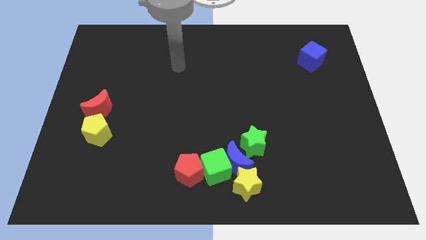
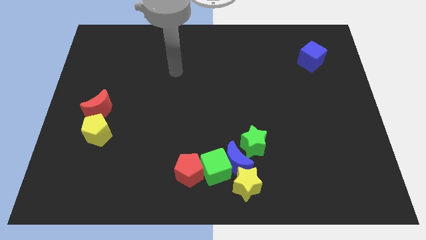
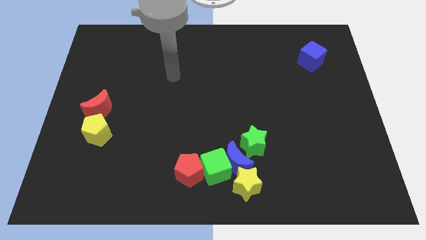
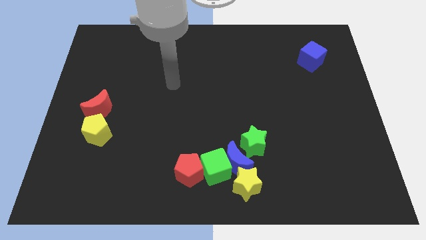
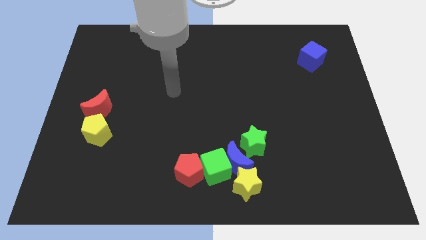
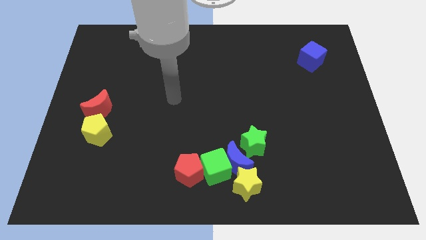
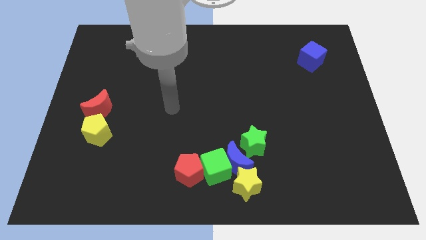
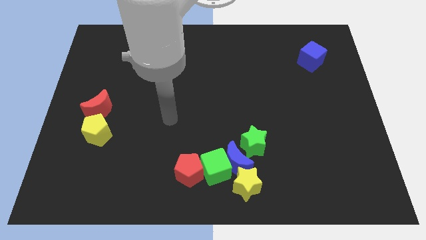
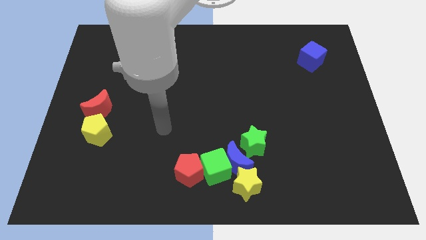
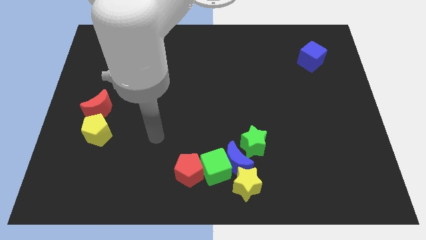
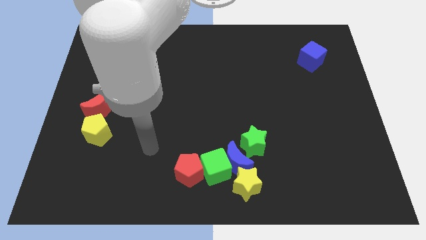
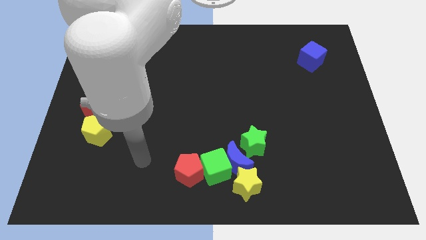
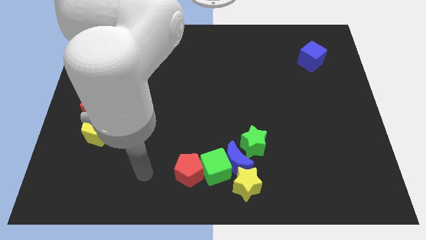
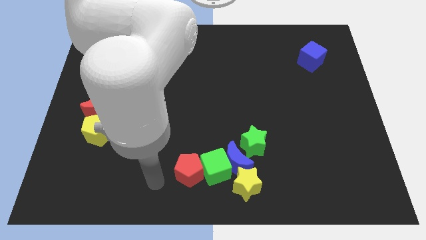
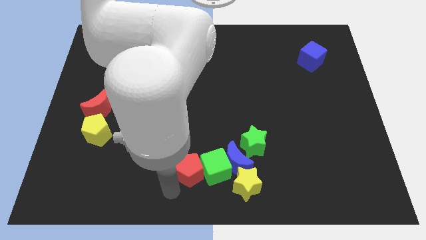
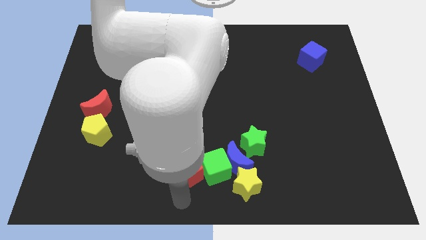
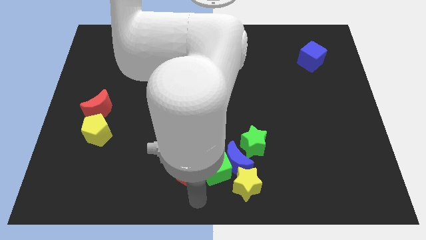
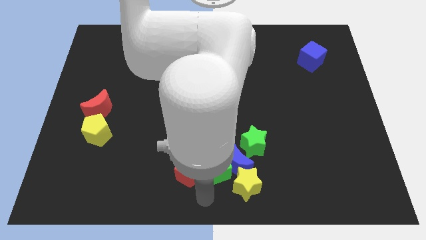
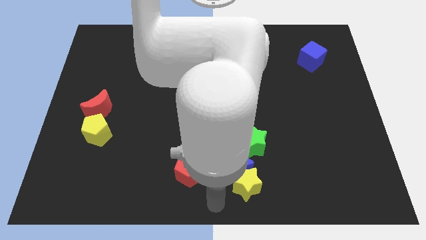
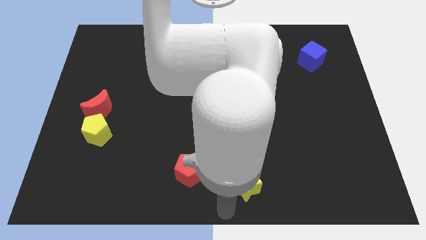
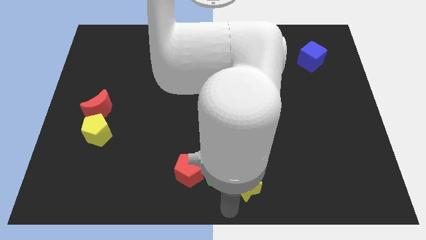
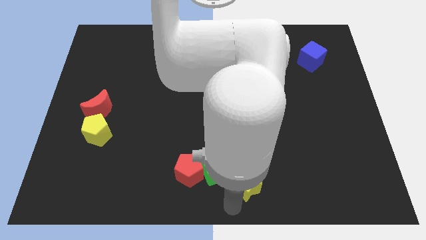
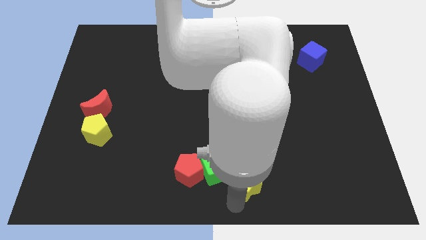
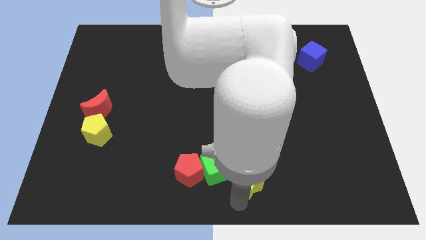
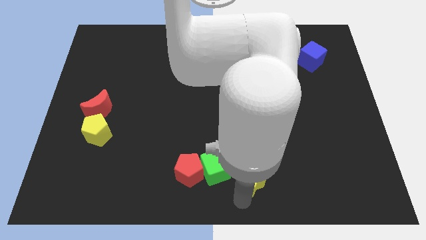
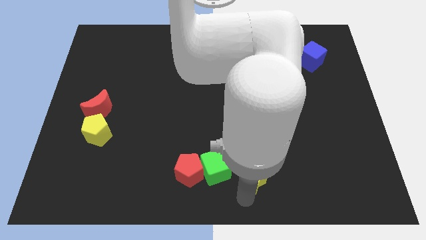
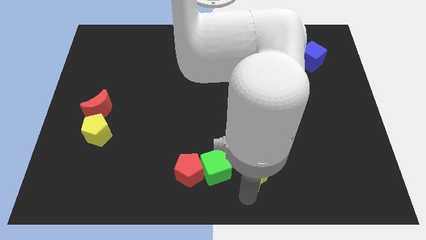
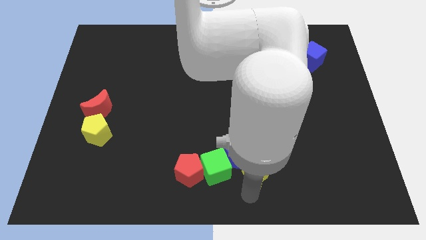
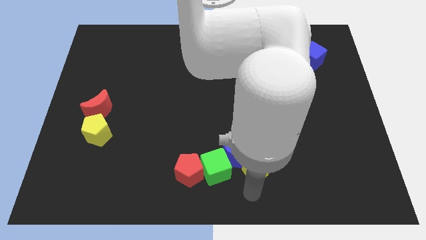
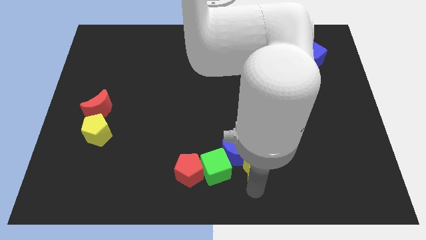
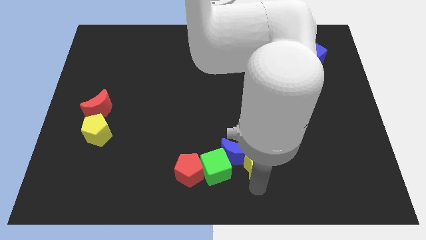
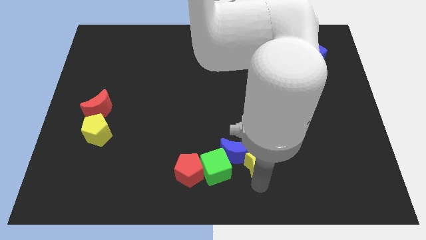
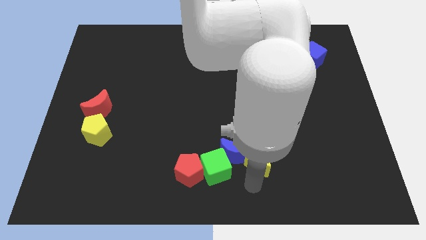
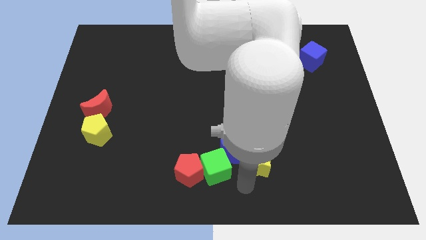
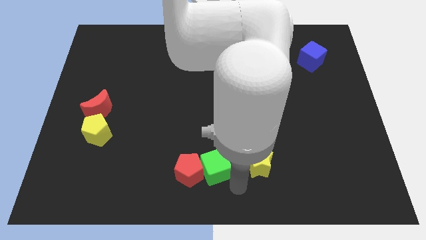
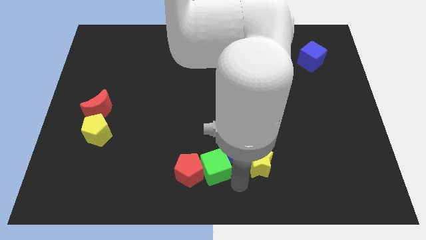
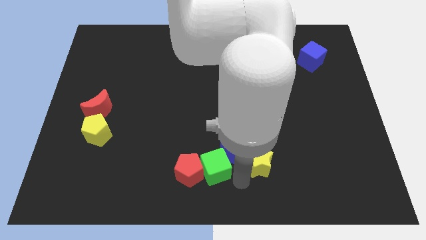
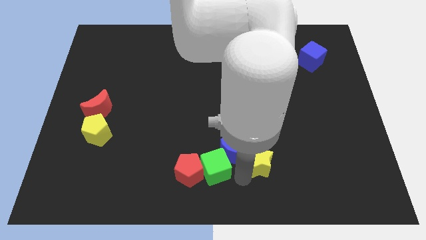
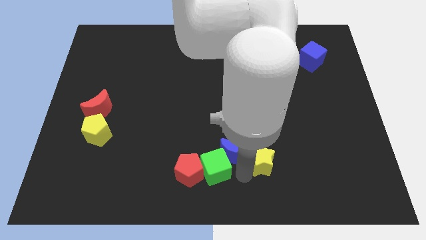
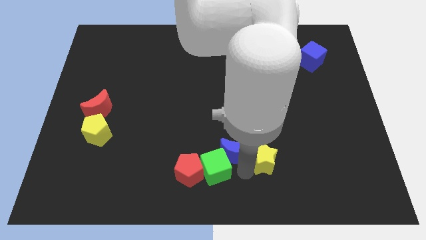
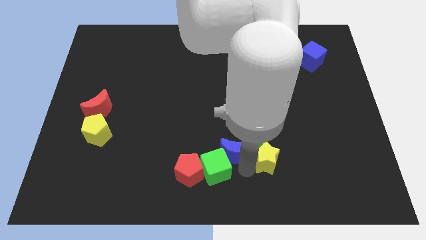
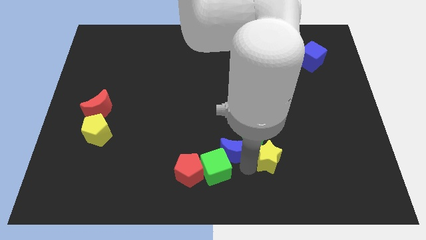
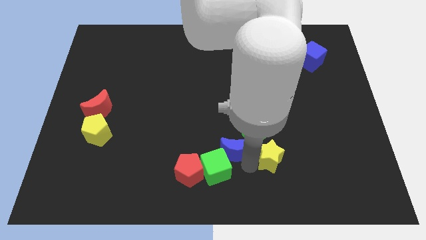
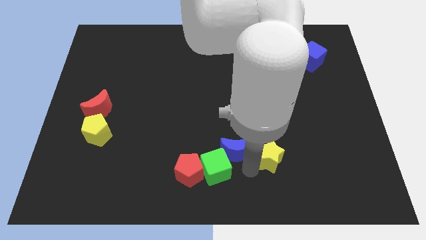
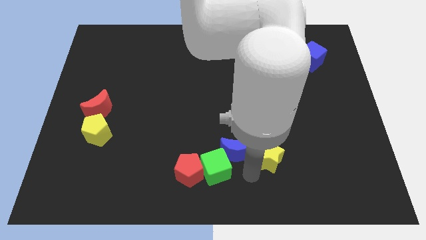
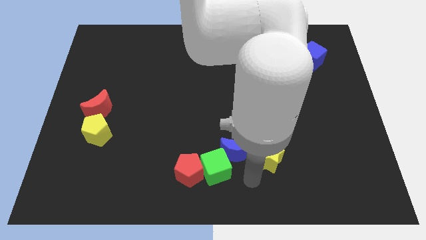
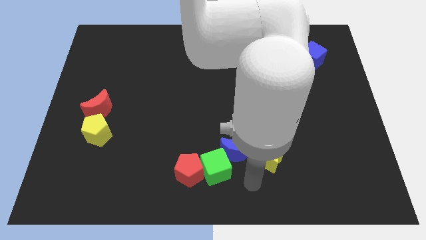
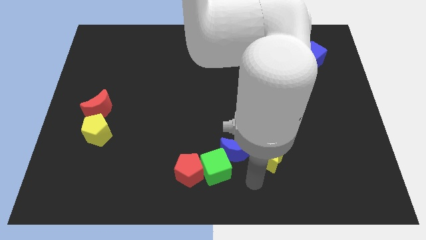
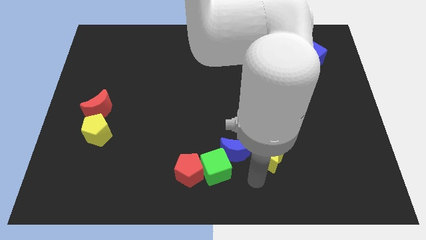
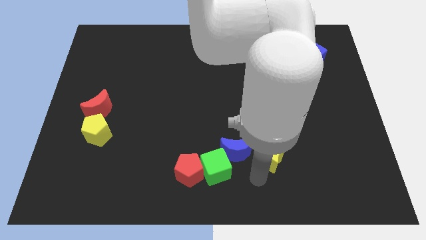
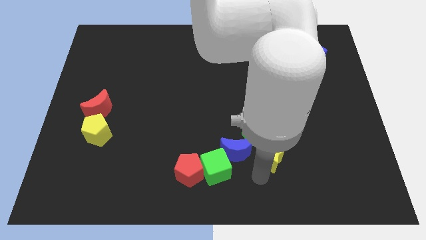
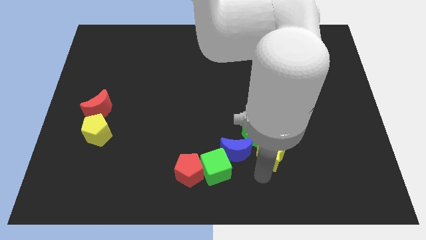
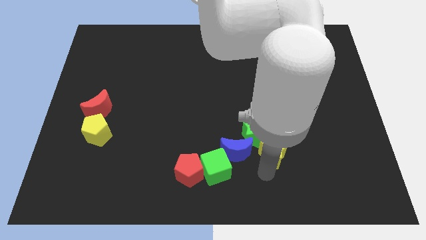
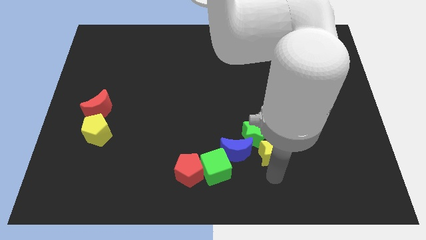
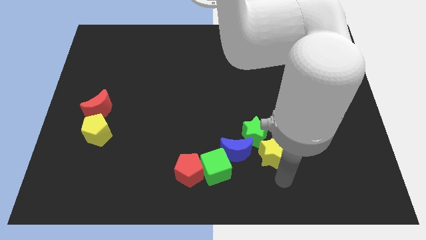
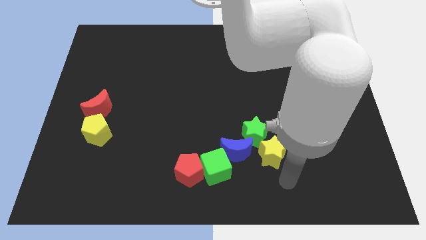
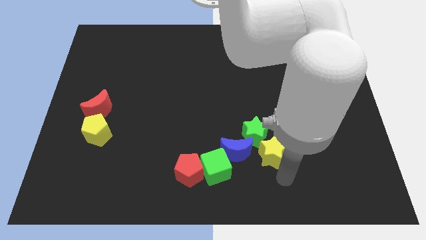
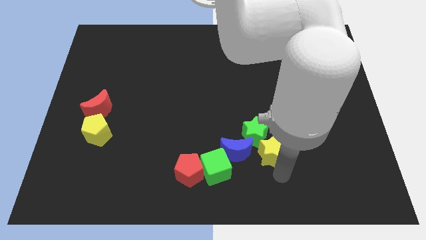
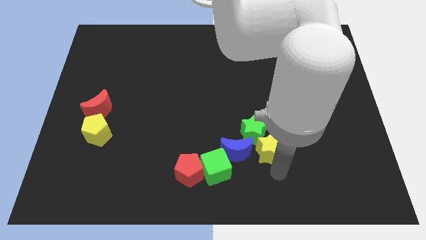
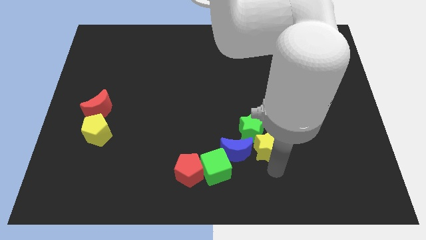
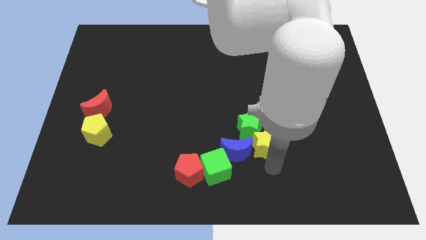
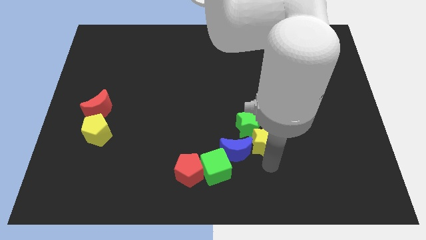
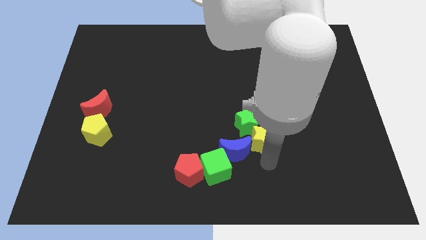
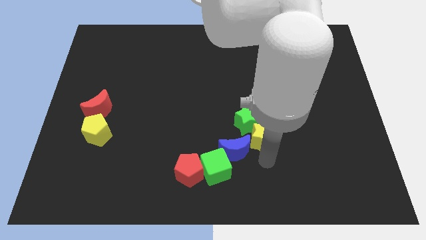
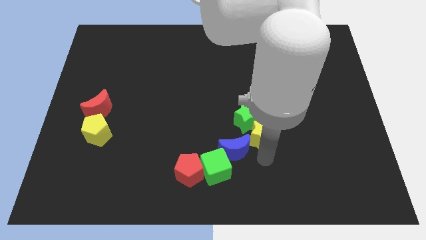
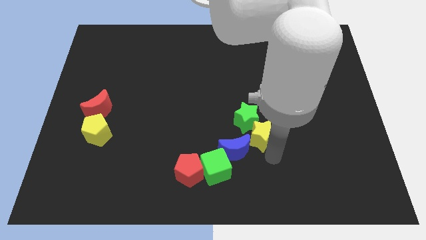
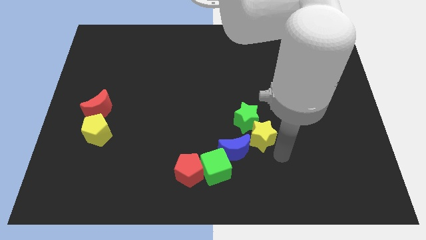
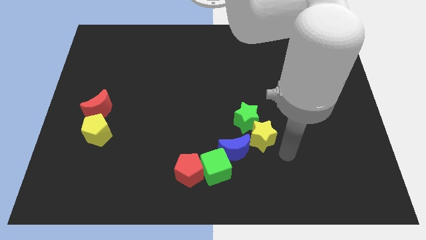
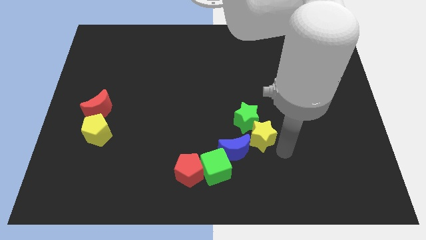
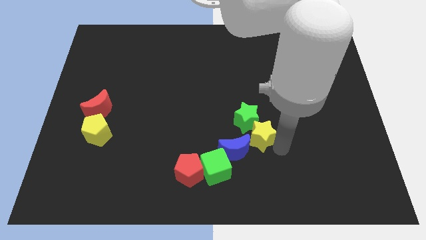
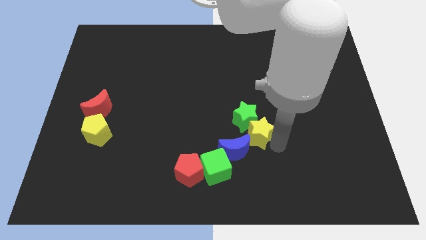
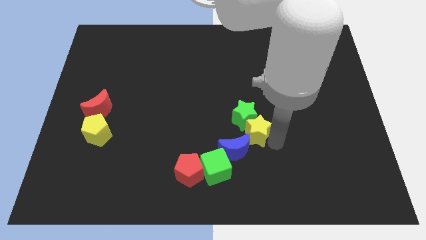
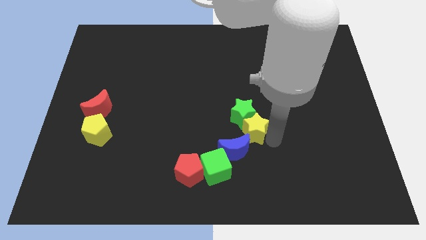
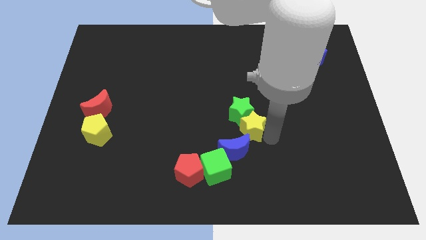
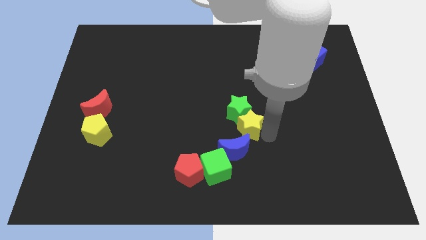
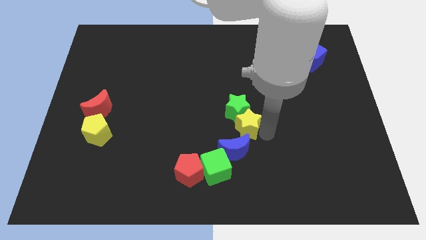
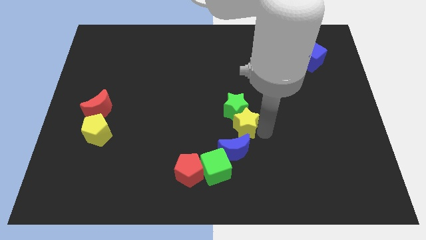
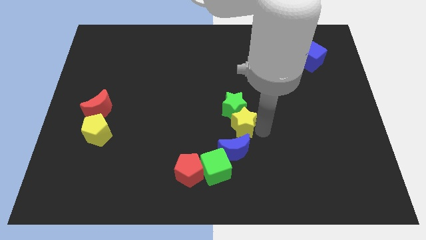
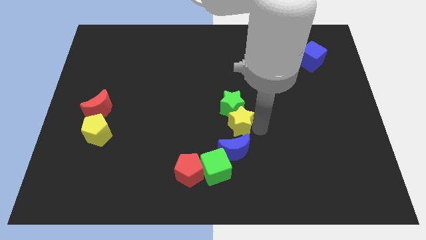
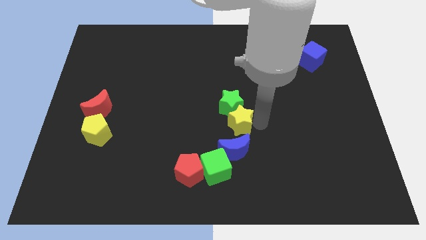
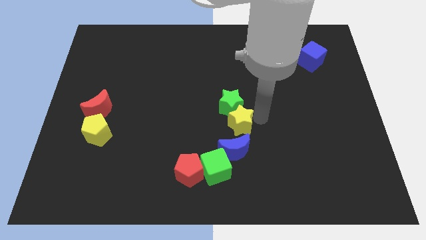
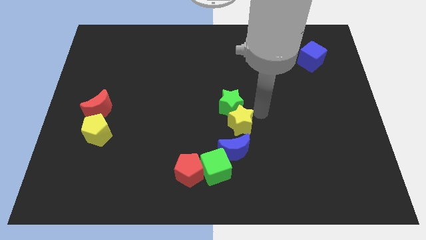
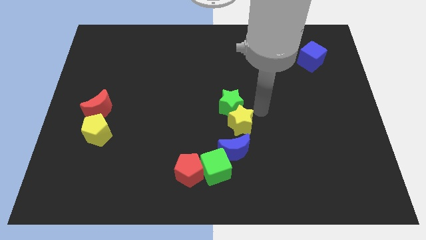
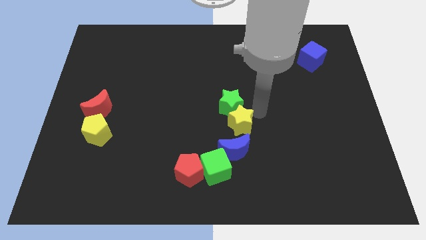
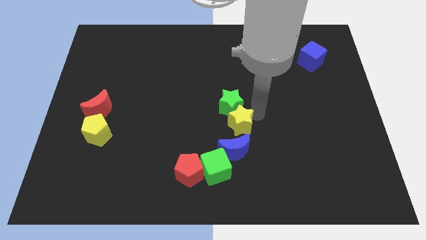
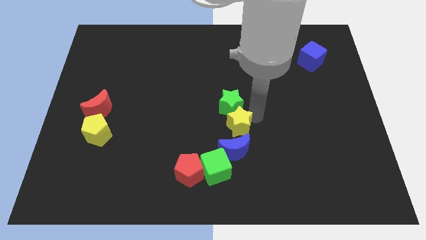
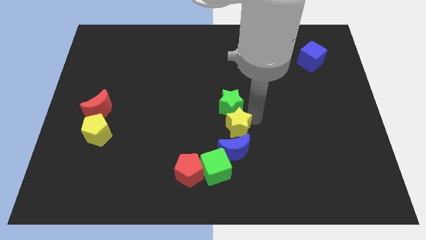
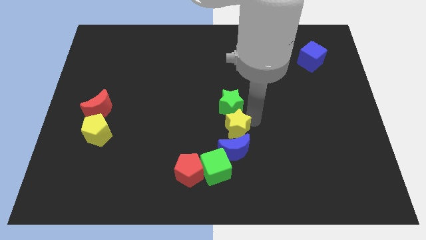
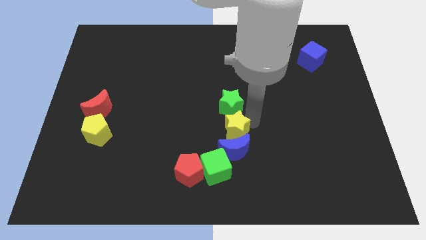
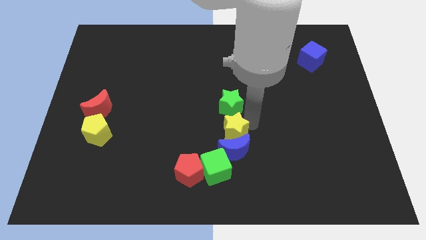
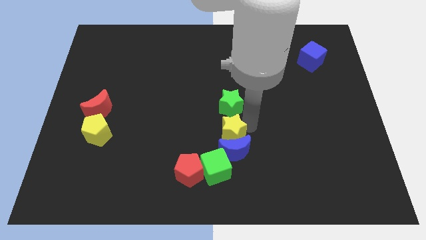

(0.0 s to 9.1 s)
slide the yellow star to the top right of the red pentagon
